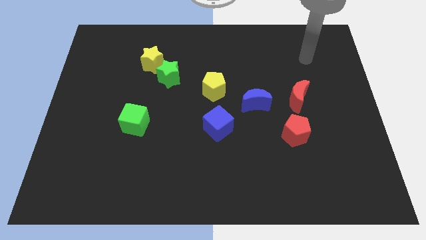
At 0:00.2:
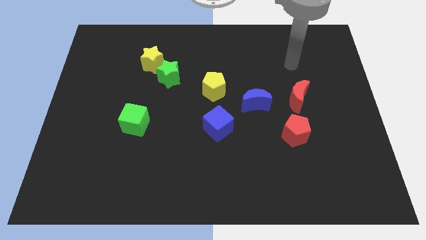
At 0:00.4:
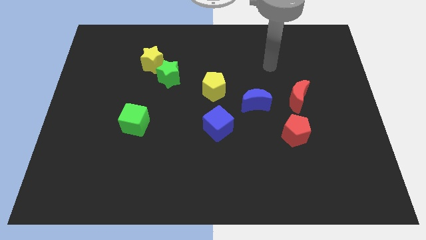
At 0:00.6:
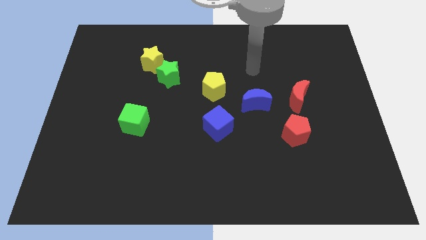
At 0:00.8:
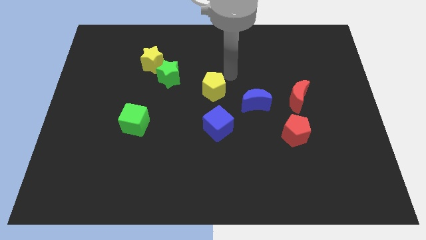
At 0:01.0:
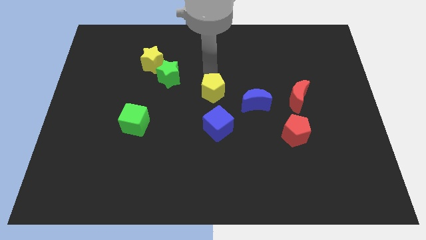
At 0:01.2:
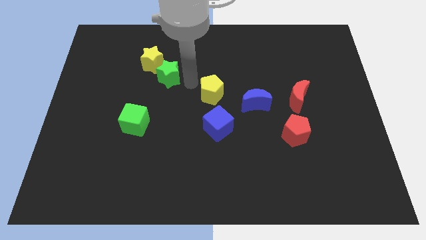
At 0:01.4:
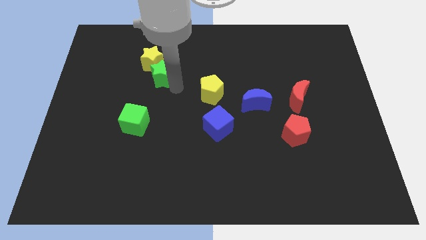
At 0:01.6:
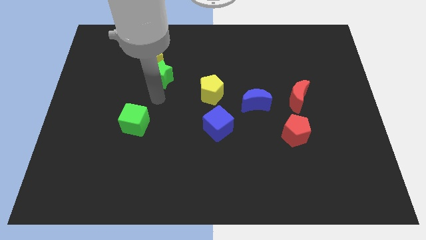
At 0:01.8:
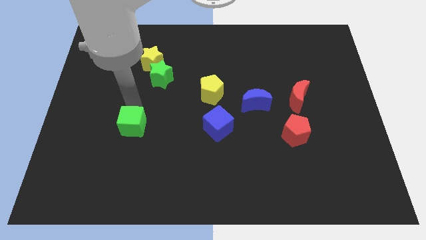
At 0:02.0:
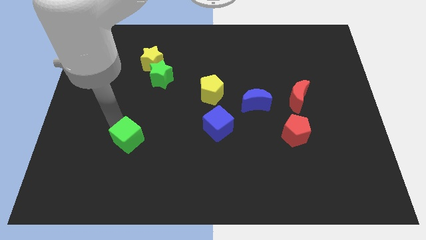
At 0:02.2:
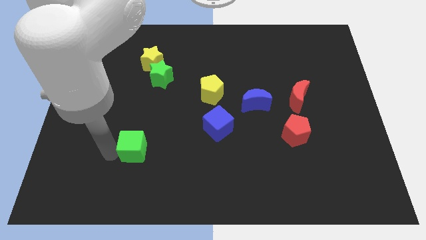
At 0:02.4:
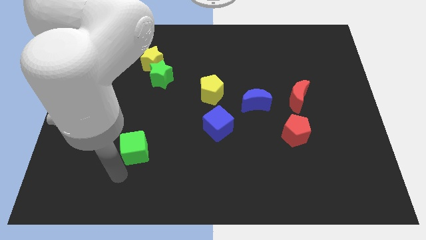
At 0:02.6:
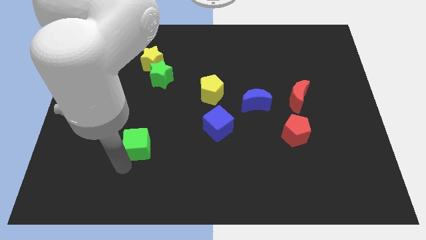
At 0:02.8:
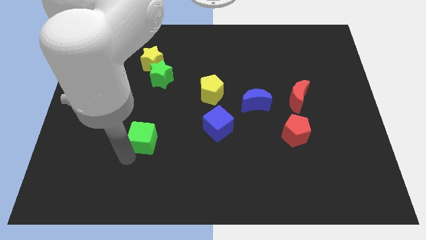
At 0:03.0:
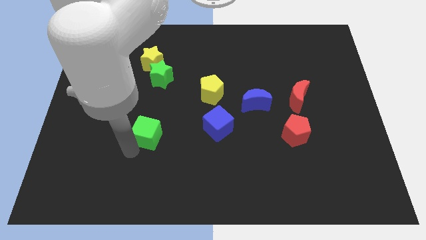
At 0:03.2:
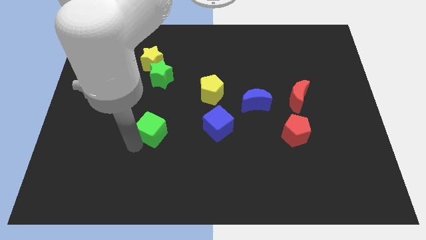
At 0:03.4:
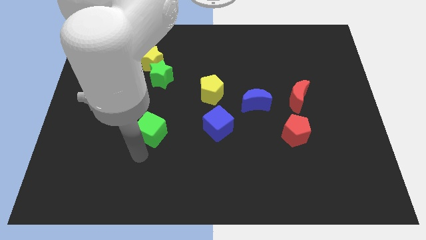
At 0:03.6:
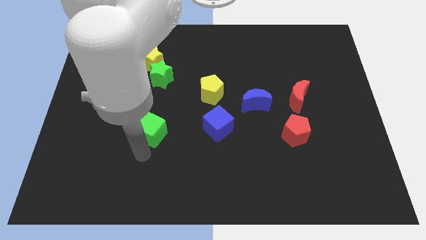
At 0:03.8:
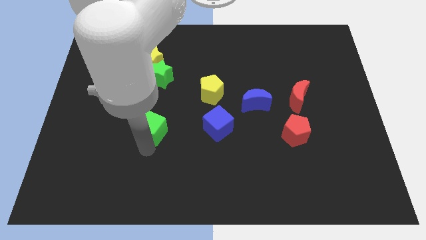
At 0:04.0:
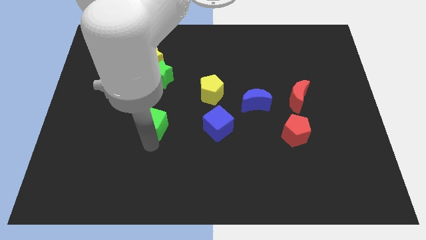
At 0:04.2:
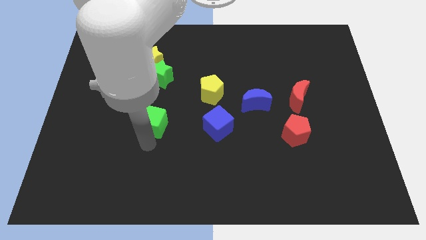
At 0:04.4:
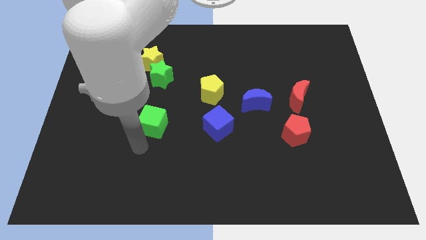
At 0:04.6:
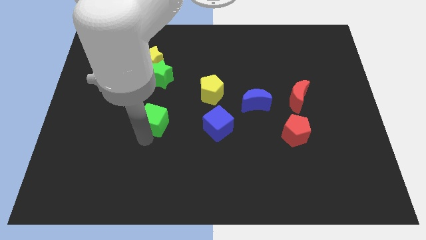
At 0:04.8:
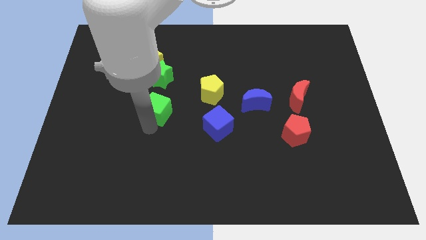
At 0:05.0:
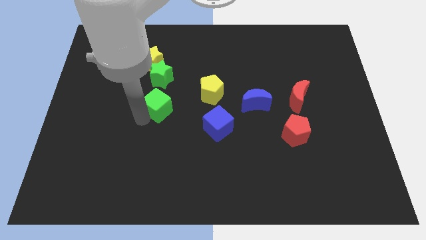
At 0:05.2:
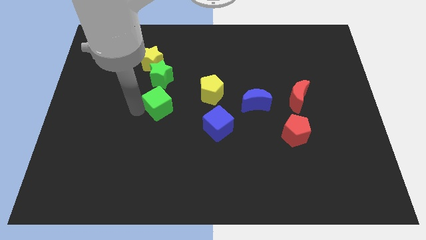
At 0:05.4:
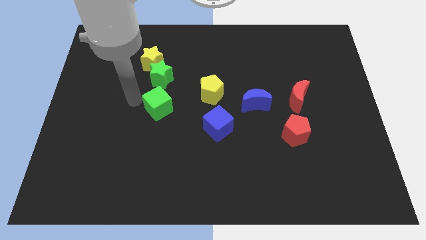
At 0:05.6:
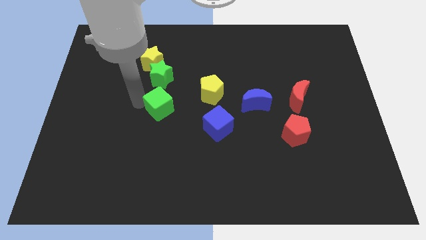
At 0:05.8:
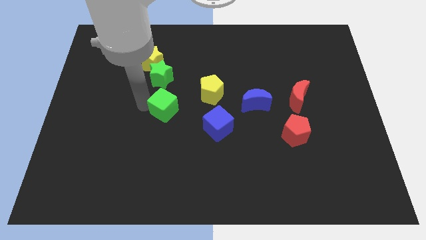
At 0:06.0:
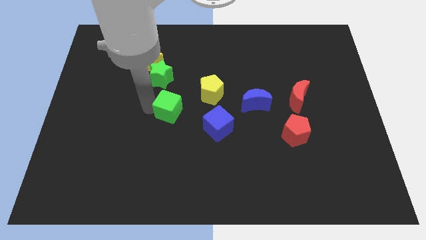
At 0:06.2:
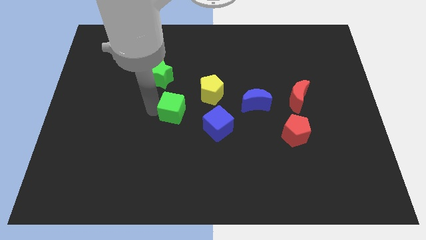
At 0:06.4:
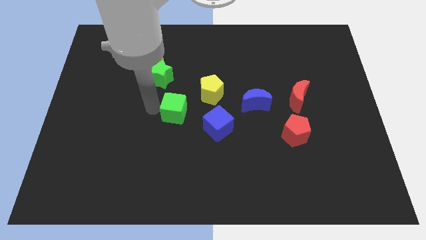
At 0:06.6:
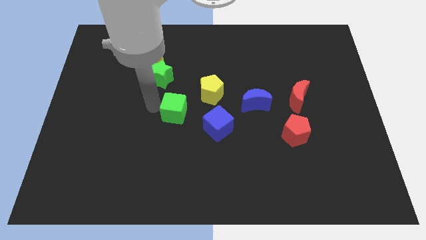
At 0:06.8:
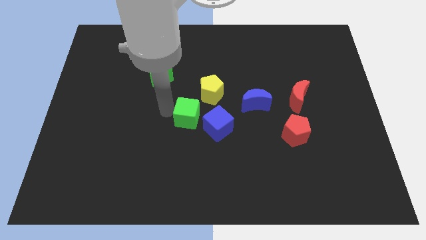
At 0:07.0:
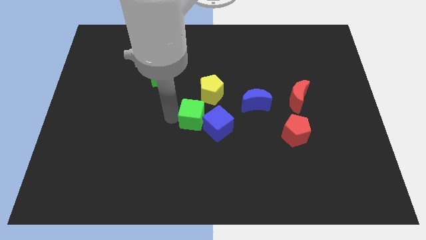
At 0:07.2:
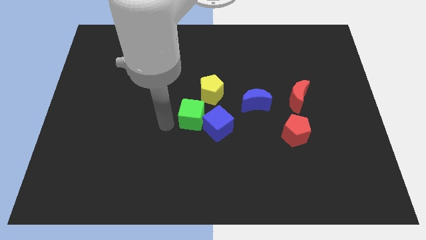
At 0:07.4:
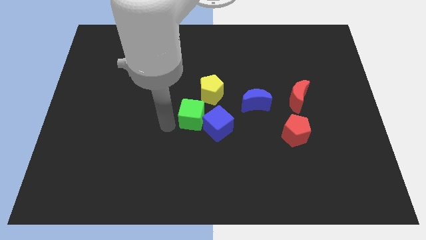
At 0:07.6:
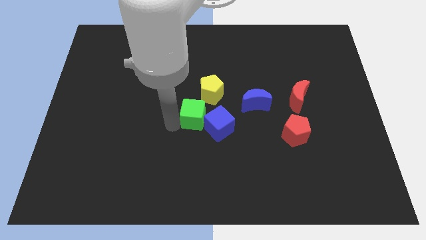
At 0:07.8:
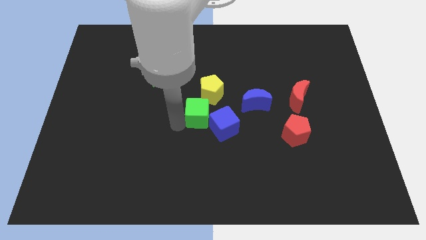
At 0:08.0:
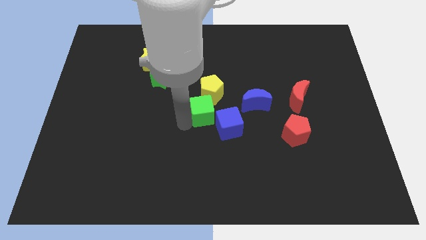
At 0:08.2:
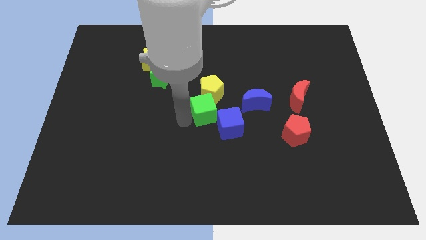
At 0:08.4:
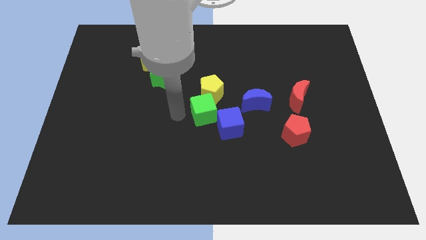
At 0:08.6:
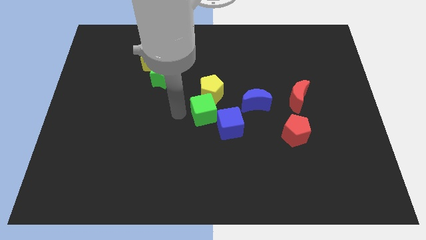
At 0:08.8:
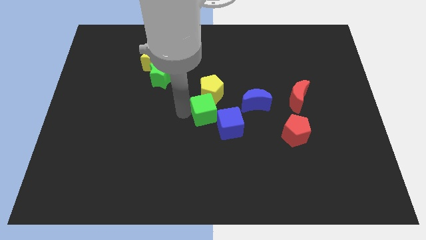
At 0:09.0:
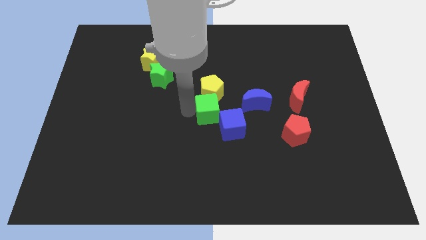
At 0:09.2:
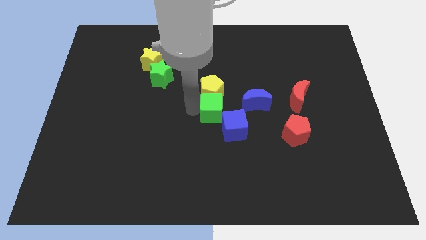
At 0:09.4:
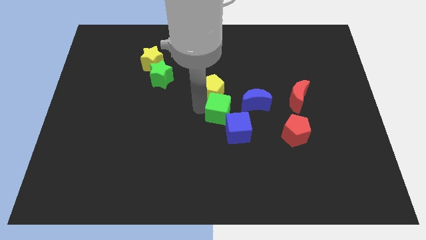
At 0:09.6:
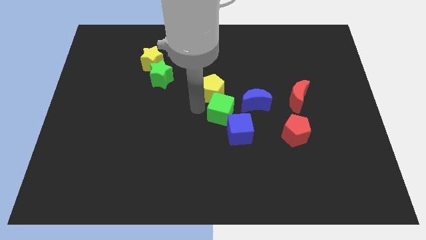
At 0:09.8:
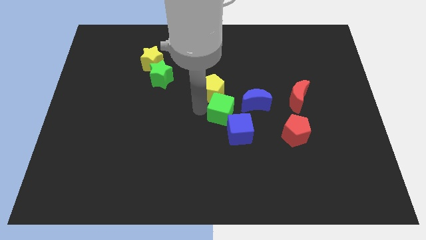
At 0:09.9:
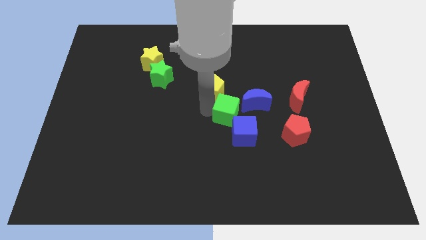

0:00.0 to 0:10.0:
slide the green cube to the right

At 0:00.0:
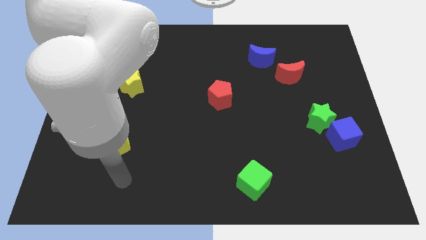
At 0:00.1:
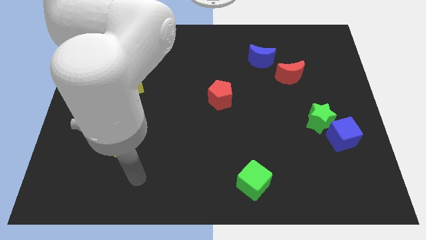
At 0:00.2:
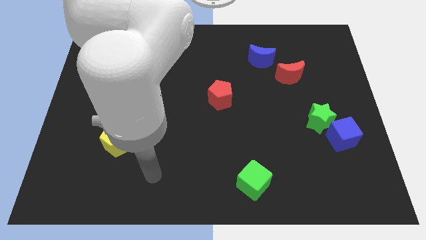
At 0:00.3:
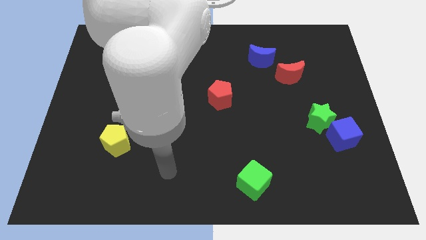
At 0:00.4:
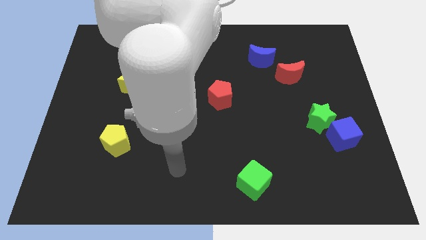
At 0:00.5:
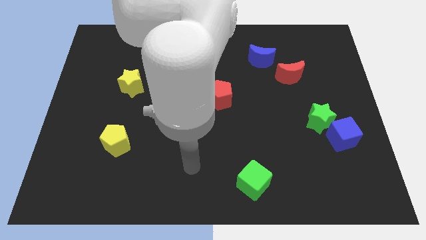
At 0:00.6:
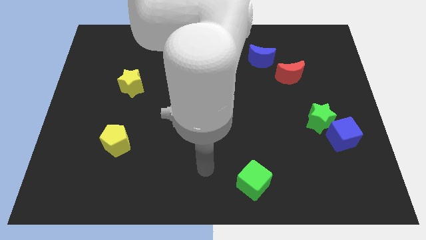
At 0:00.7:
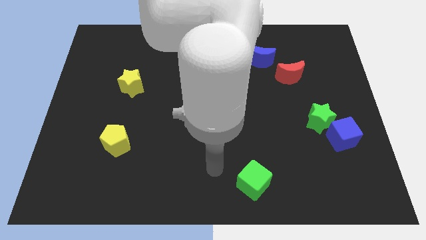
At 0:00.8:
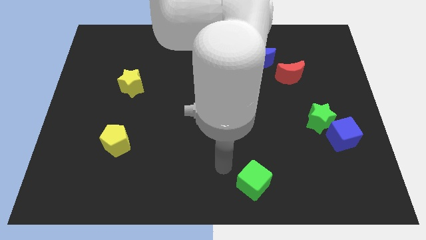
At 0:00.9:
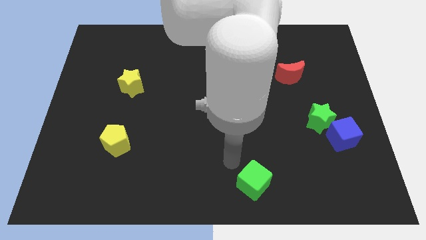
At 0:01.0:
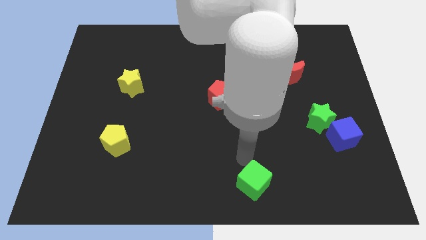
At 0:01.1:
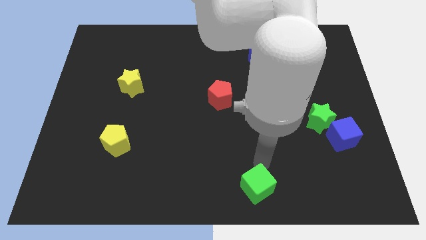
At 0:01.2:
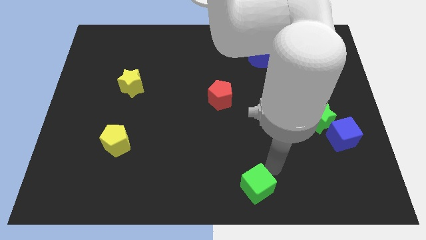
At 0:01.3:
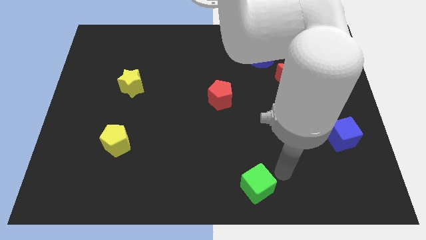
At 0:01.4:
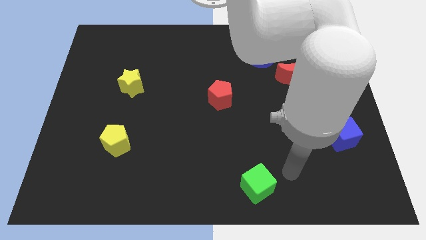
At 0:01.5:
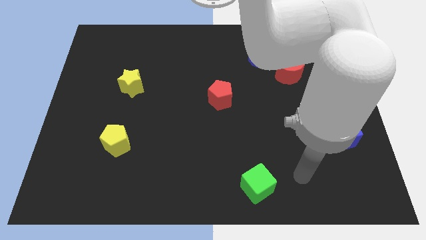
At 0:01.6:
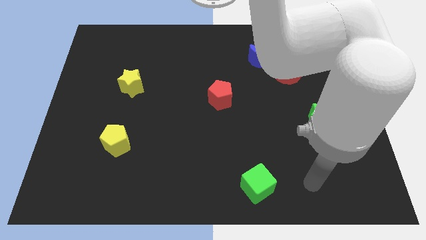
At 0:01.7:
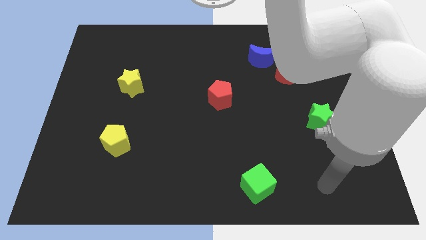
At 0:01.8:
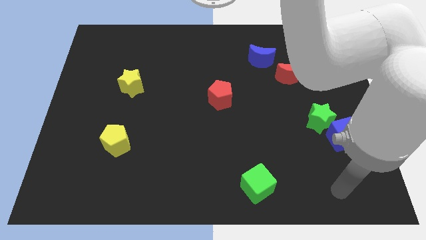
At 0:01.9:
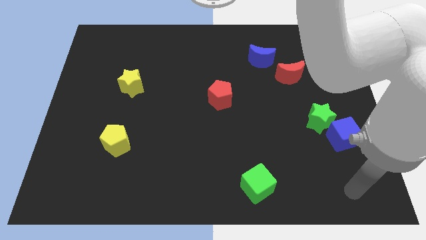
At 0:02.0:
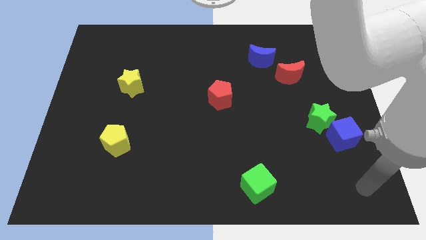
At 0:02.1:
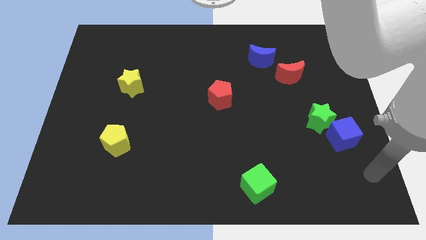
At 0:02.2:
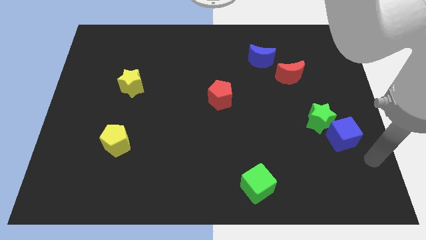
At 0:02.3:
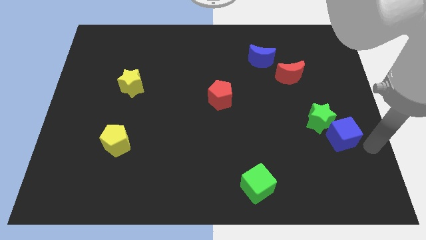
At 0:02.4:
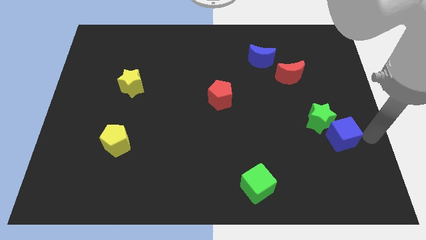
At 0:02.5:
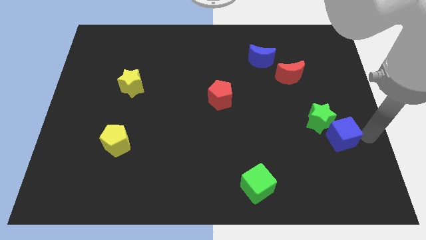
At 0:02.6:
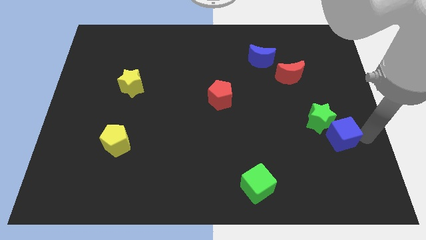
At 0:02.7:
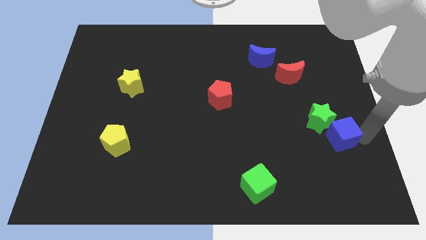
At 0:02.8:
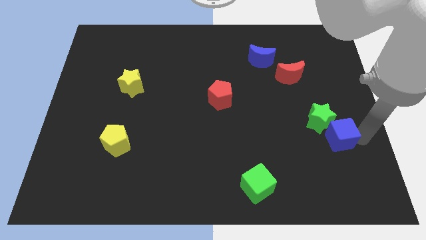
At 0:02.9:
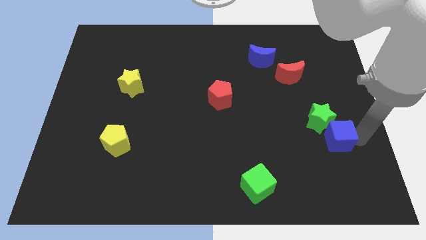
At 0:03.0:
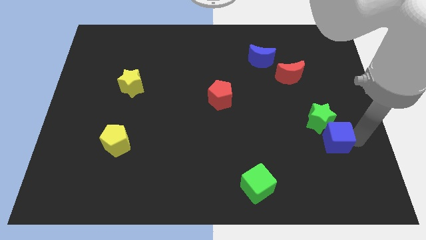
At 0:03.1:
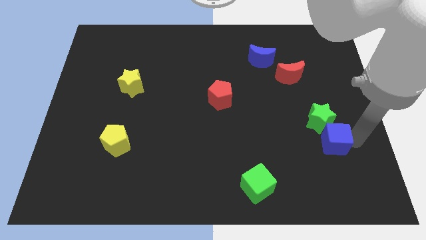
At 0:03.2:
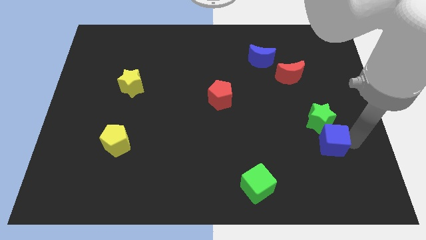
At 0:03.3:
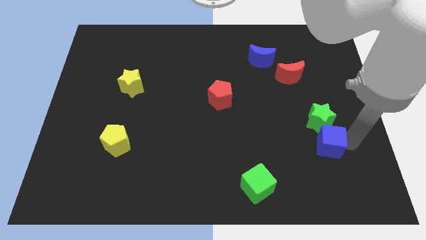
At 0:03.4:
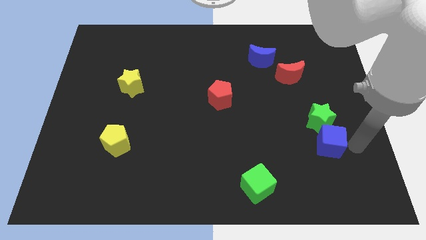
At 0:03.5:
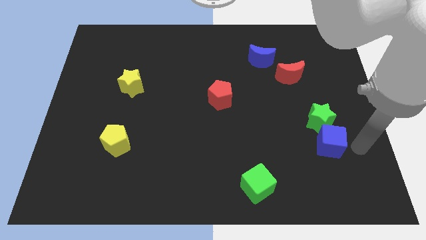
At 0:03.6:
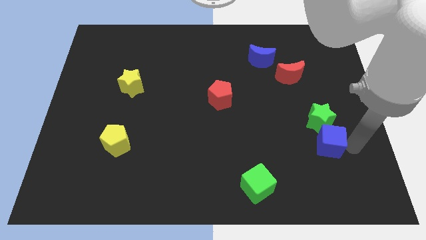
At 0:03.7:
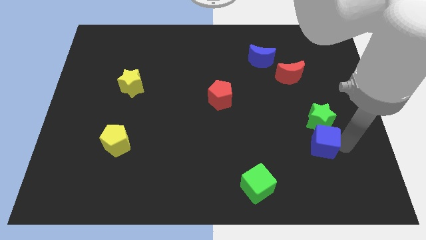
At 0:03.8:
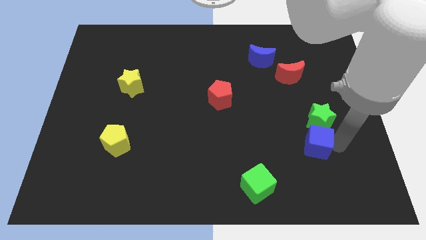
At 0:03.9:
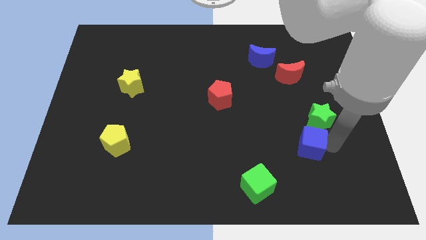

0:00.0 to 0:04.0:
slide the blue cube left somewhat
